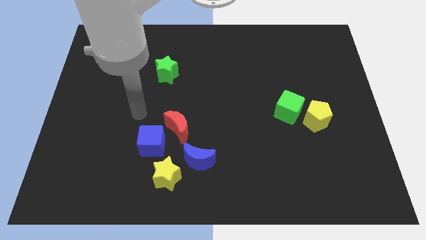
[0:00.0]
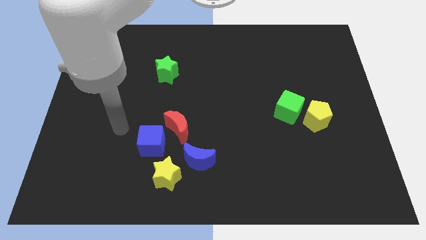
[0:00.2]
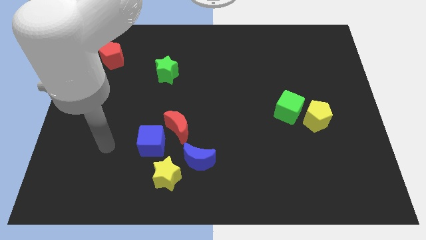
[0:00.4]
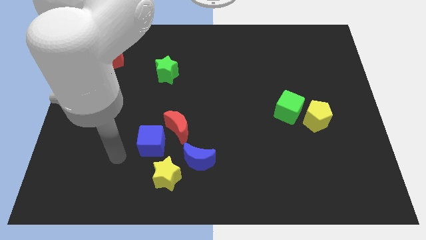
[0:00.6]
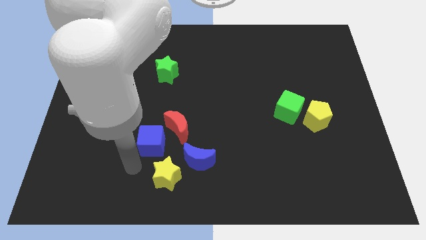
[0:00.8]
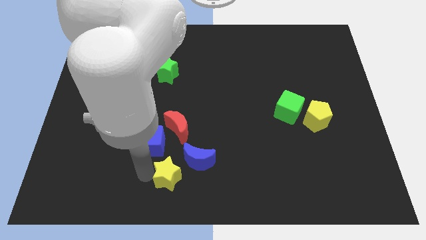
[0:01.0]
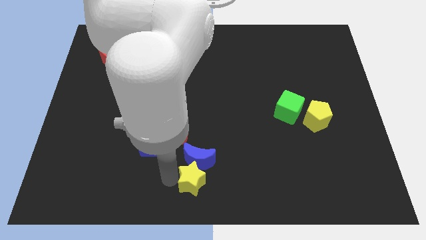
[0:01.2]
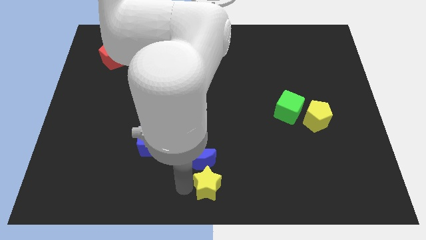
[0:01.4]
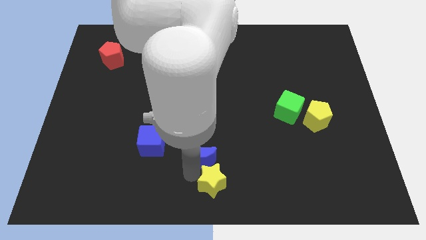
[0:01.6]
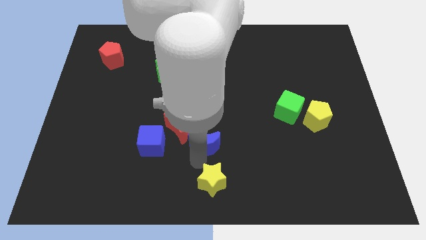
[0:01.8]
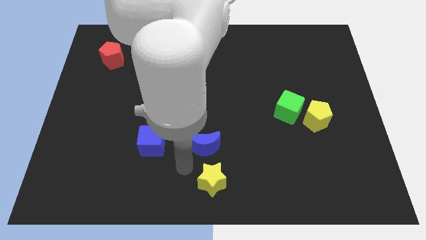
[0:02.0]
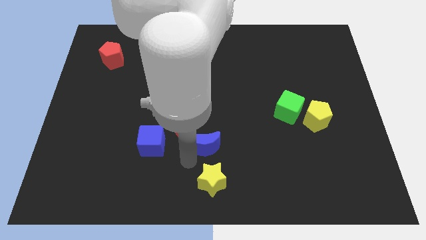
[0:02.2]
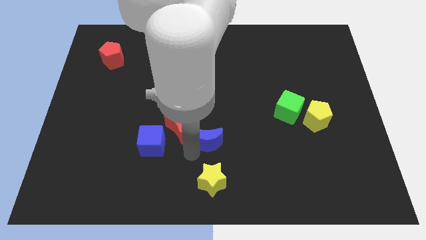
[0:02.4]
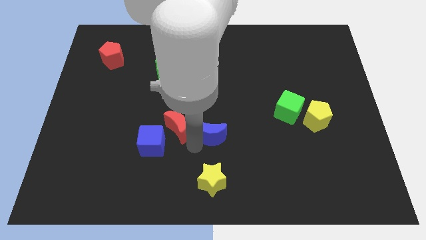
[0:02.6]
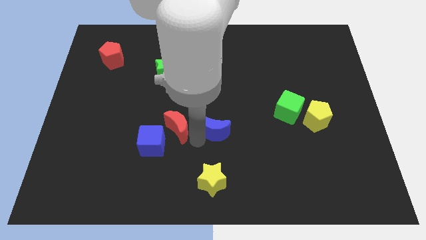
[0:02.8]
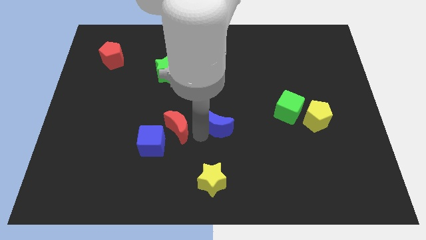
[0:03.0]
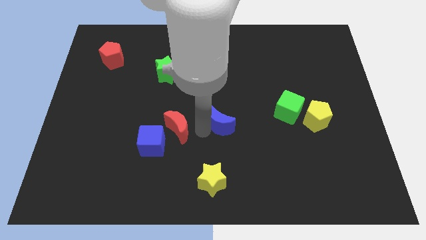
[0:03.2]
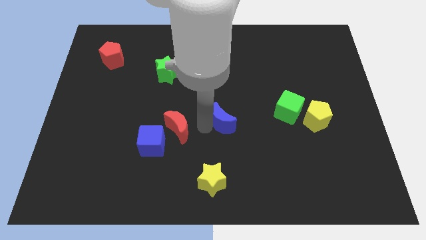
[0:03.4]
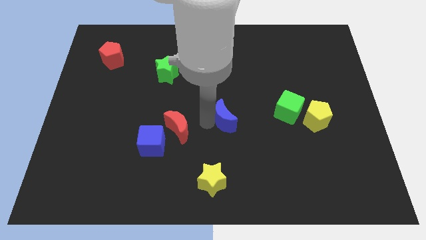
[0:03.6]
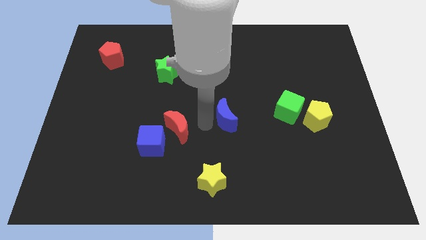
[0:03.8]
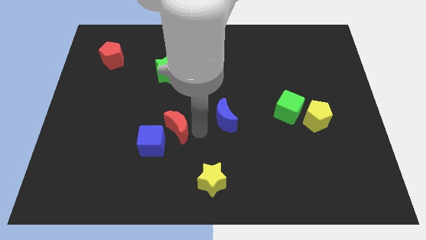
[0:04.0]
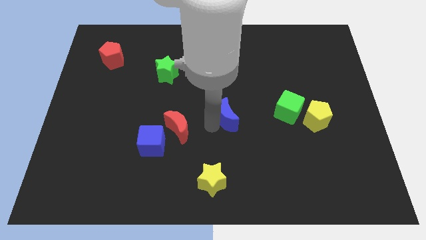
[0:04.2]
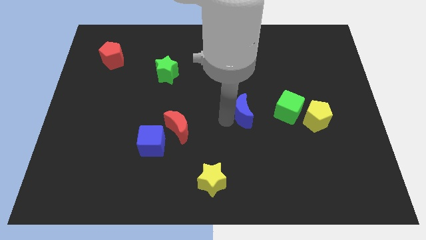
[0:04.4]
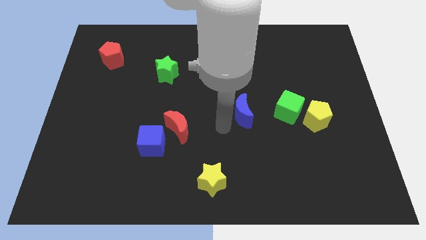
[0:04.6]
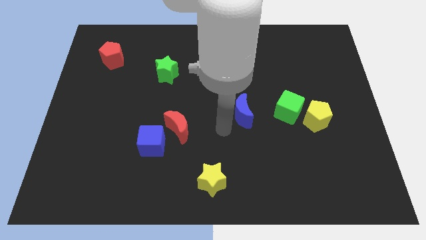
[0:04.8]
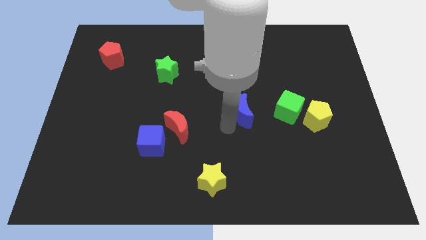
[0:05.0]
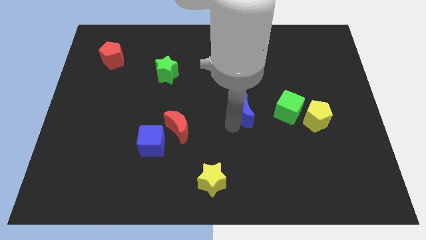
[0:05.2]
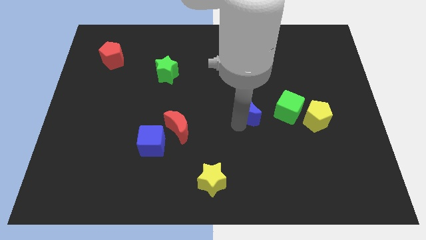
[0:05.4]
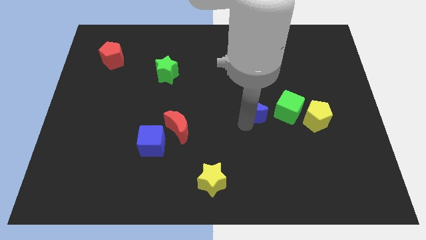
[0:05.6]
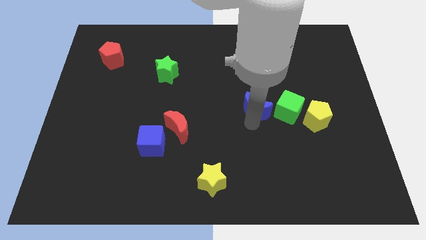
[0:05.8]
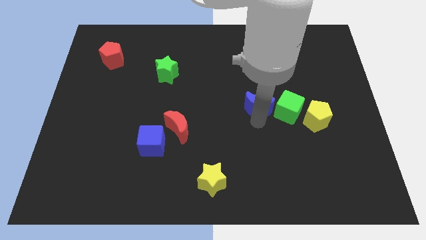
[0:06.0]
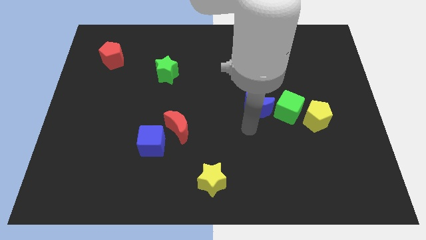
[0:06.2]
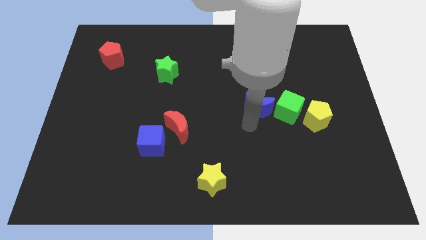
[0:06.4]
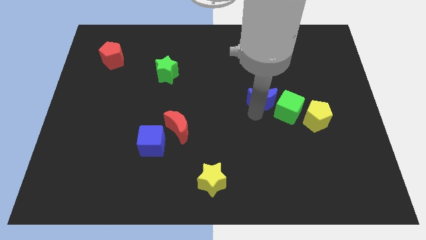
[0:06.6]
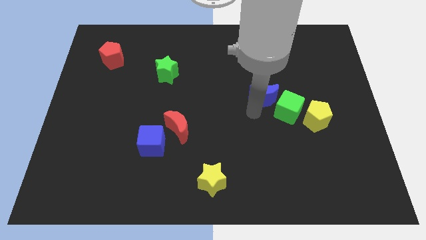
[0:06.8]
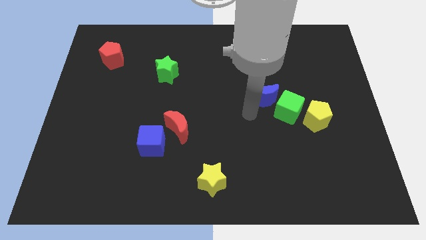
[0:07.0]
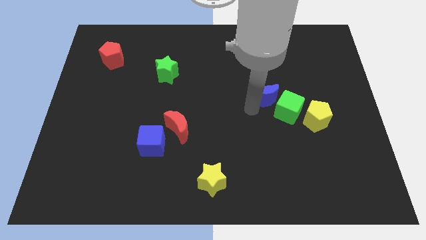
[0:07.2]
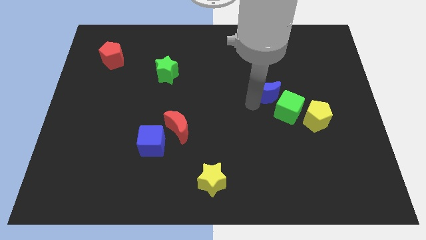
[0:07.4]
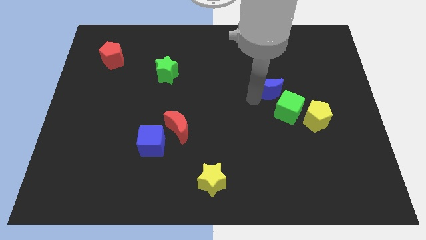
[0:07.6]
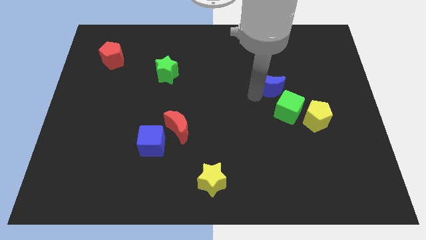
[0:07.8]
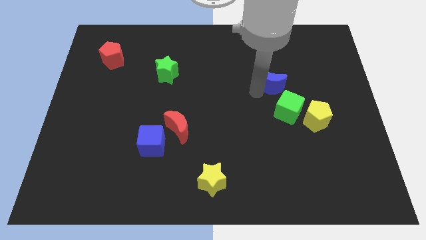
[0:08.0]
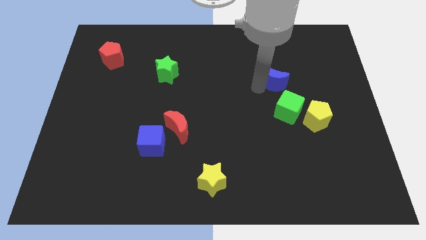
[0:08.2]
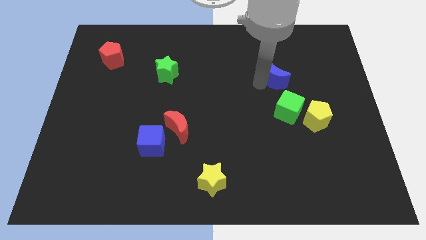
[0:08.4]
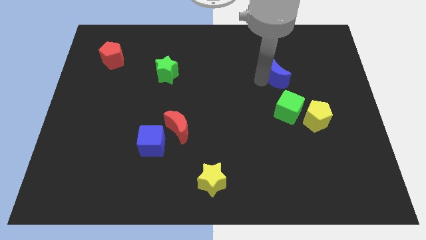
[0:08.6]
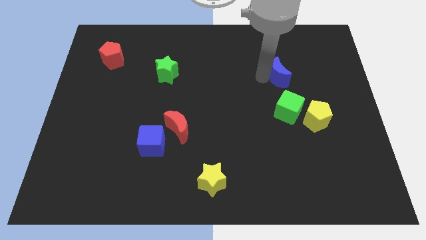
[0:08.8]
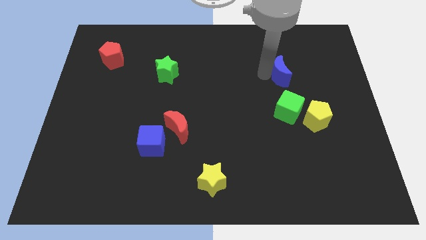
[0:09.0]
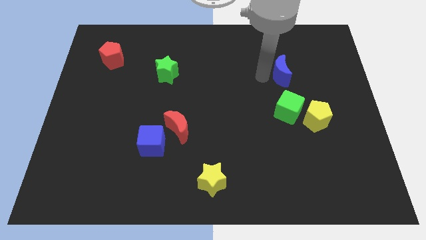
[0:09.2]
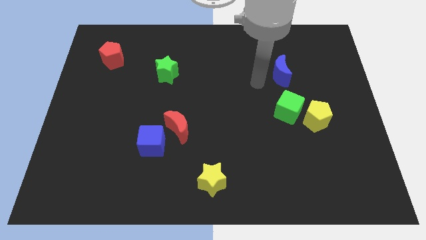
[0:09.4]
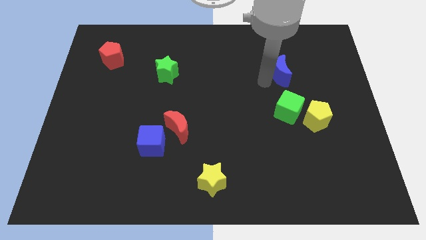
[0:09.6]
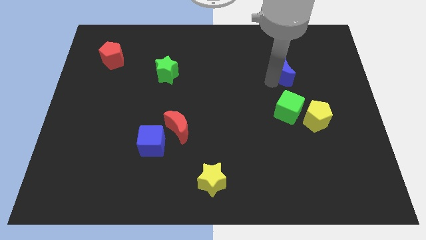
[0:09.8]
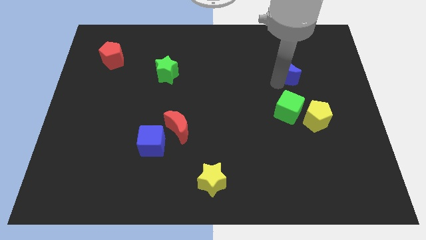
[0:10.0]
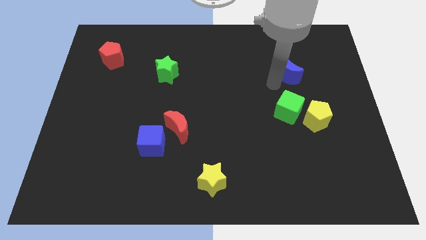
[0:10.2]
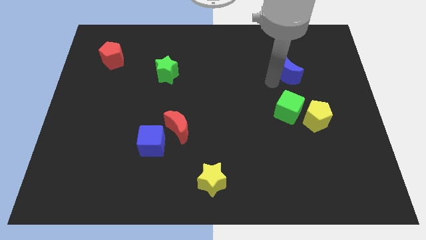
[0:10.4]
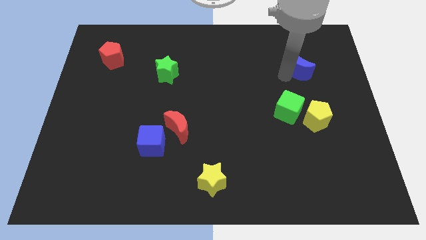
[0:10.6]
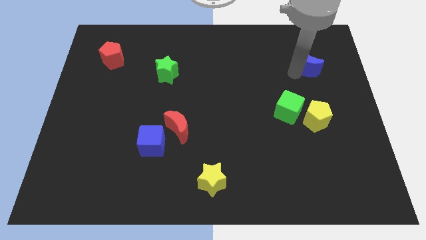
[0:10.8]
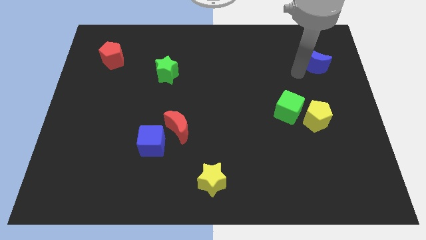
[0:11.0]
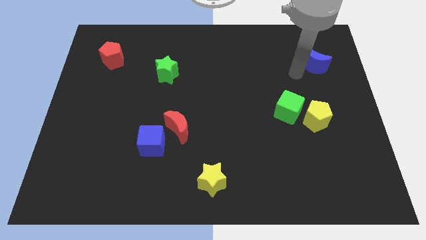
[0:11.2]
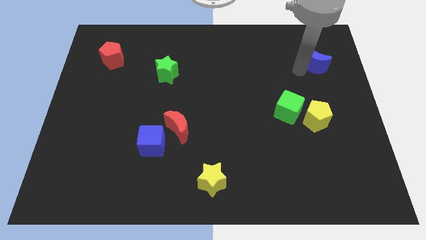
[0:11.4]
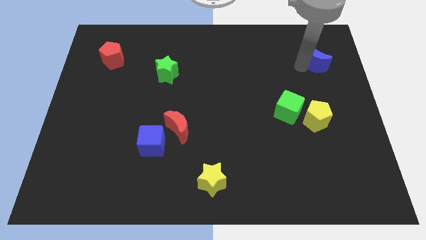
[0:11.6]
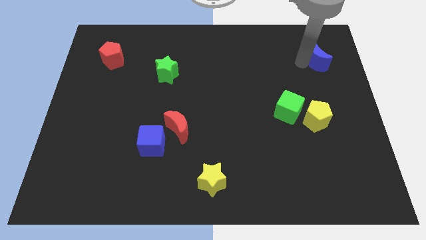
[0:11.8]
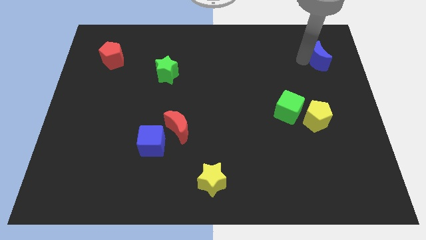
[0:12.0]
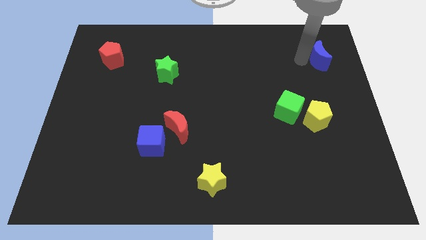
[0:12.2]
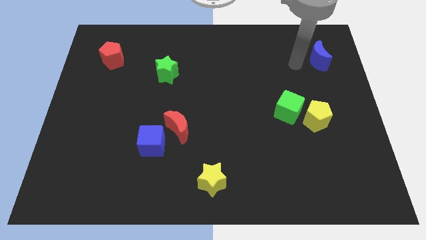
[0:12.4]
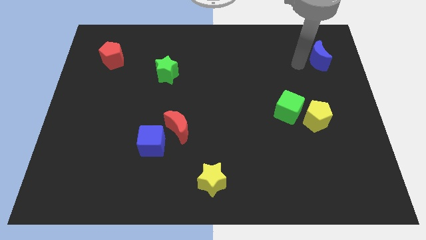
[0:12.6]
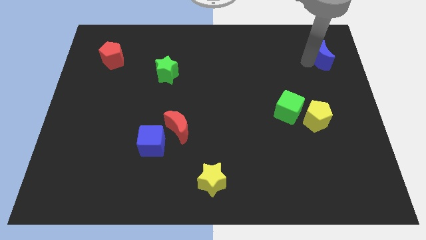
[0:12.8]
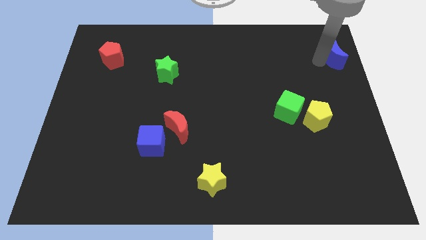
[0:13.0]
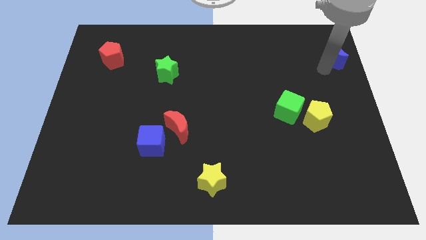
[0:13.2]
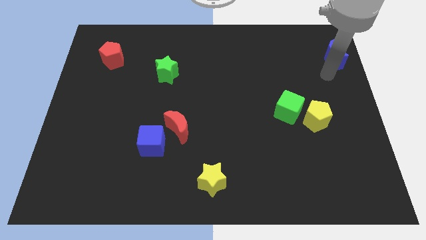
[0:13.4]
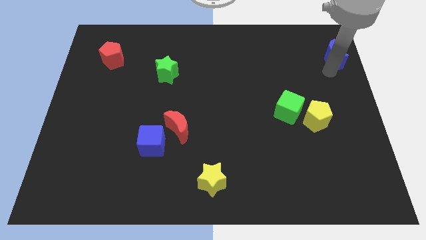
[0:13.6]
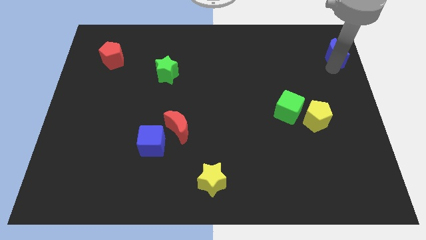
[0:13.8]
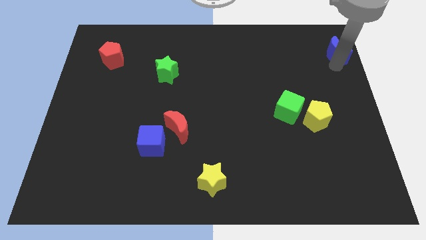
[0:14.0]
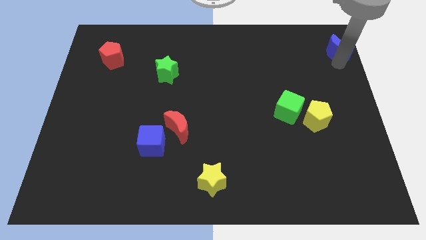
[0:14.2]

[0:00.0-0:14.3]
slide the blue moon to the top right of the board
